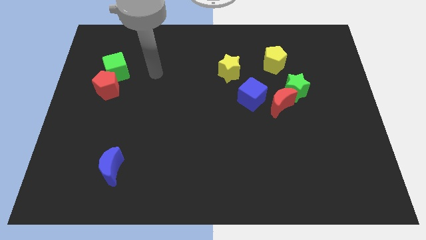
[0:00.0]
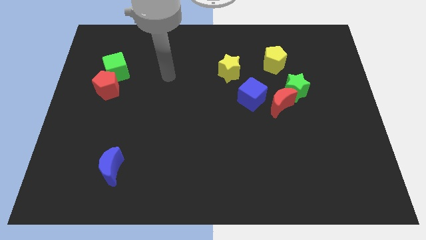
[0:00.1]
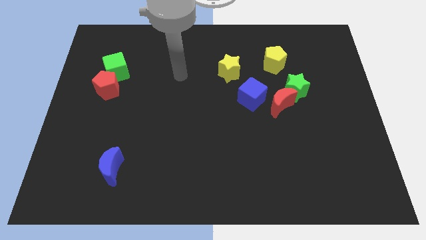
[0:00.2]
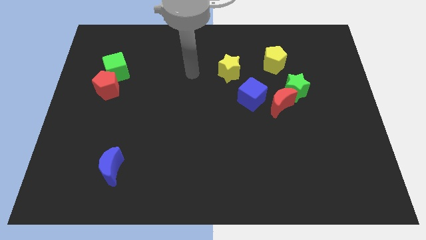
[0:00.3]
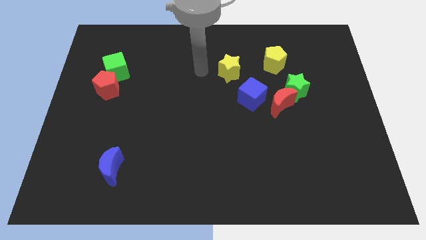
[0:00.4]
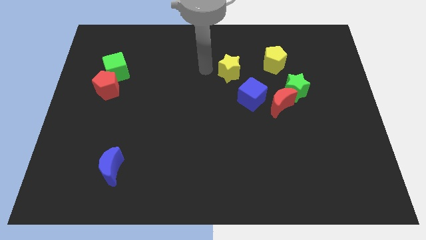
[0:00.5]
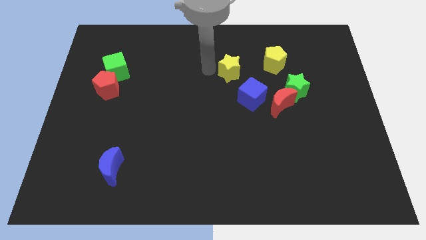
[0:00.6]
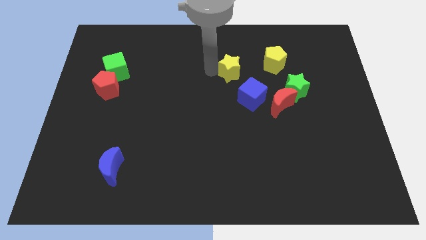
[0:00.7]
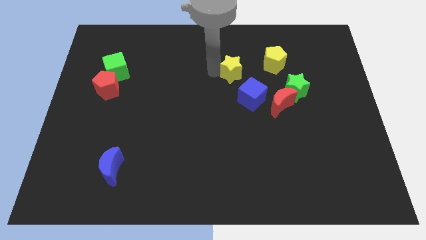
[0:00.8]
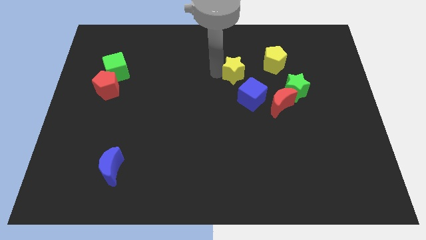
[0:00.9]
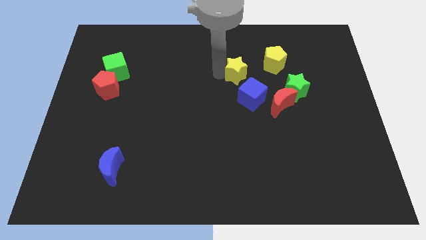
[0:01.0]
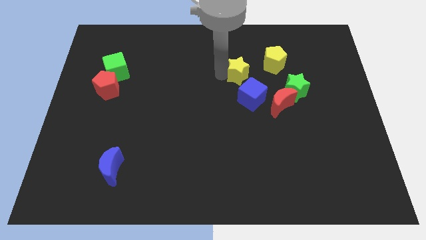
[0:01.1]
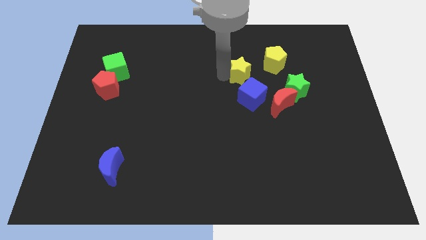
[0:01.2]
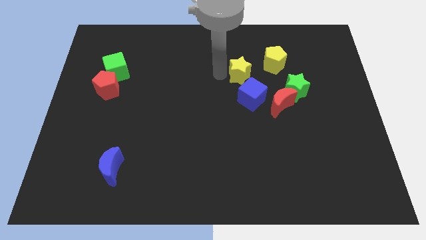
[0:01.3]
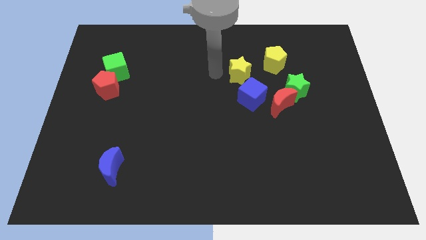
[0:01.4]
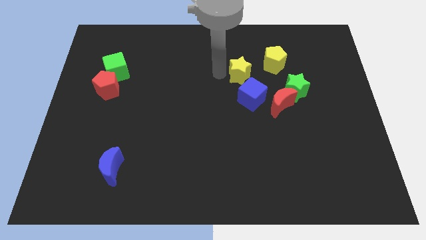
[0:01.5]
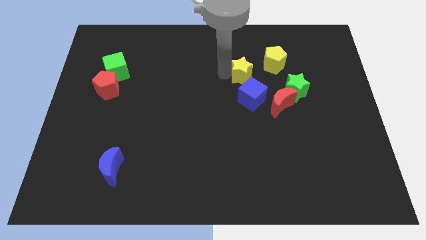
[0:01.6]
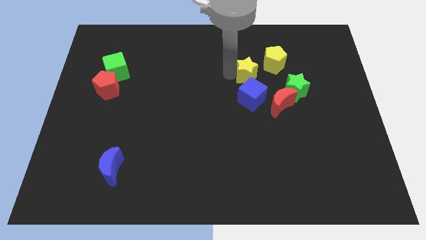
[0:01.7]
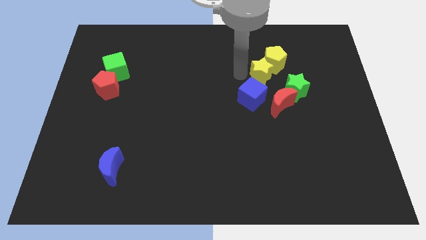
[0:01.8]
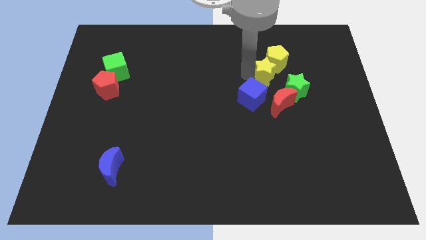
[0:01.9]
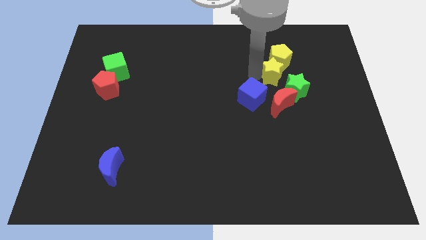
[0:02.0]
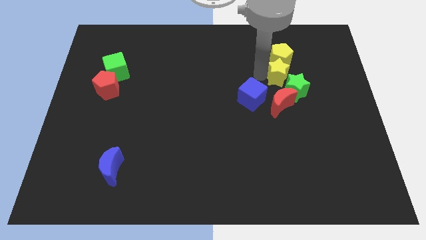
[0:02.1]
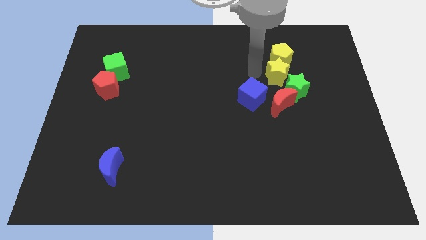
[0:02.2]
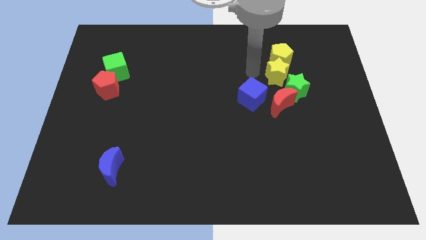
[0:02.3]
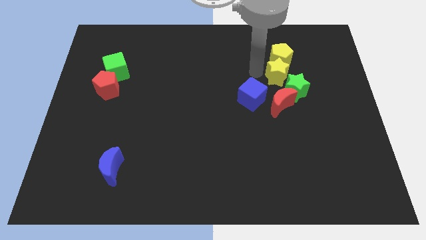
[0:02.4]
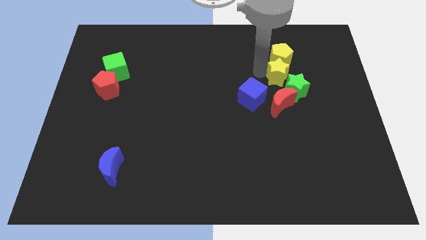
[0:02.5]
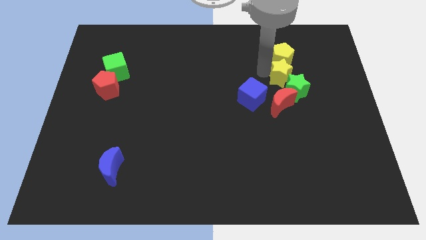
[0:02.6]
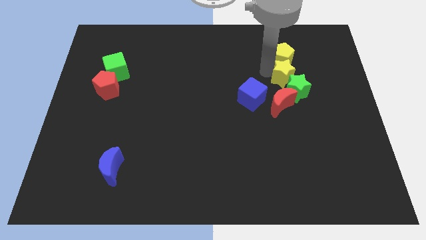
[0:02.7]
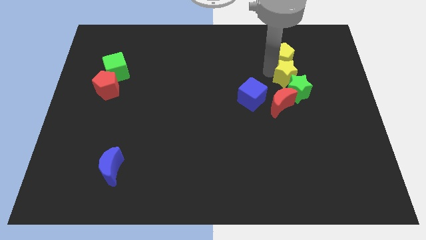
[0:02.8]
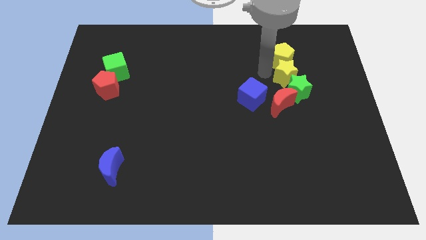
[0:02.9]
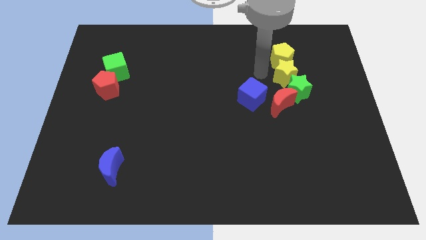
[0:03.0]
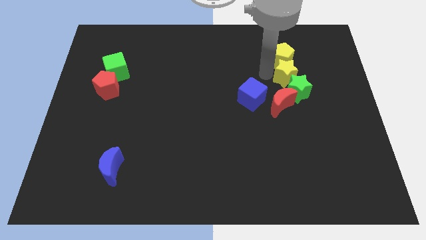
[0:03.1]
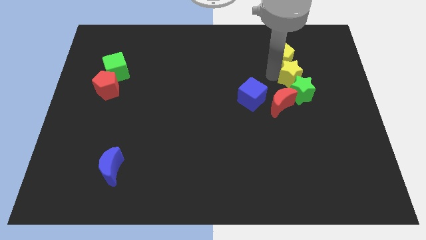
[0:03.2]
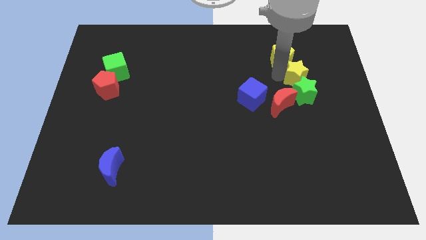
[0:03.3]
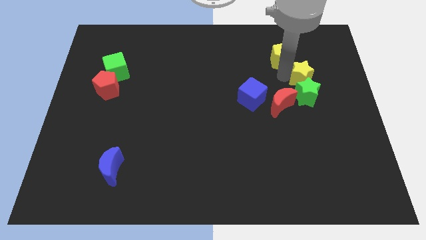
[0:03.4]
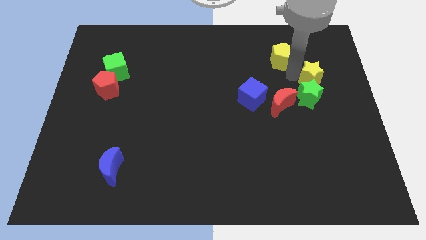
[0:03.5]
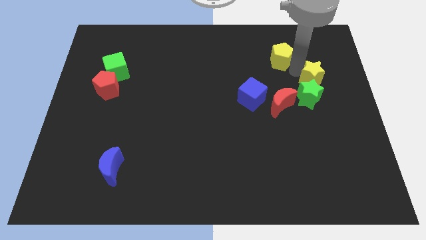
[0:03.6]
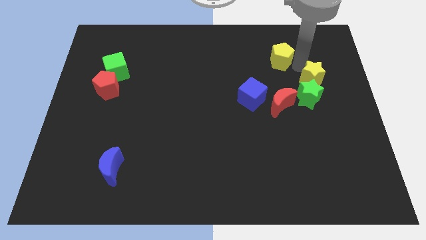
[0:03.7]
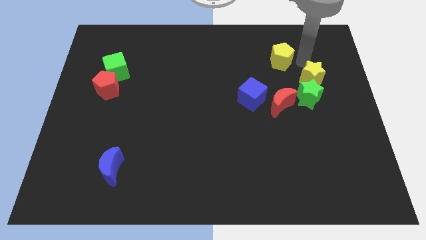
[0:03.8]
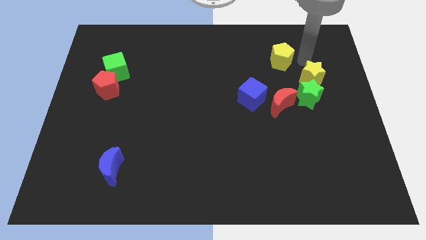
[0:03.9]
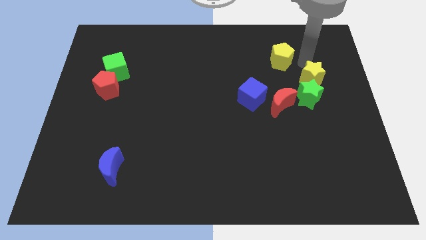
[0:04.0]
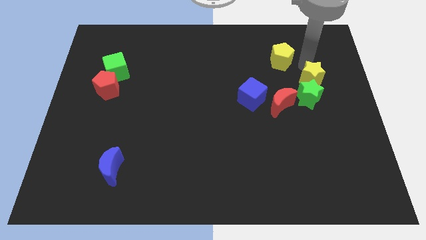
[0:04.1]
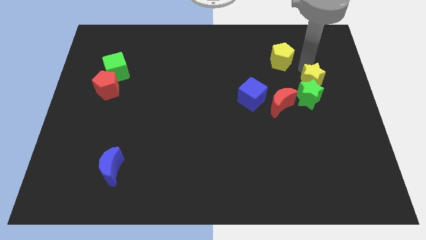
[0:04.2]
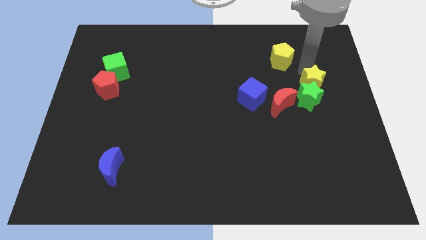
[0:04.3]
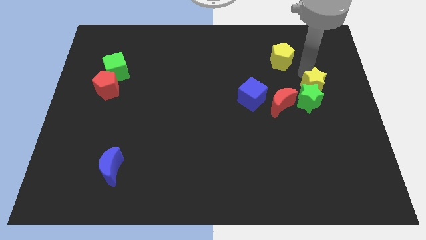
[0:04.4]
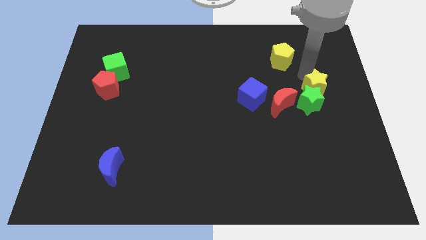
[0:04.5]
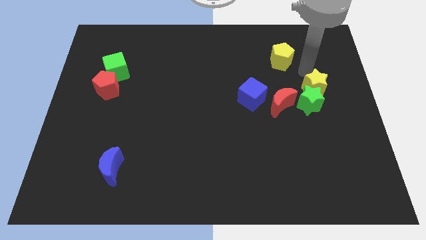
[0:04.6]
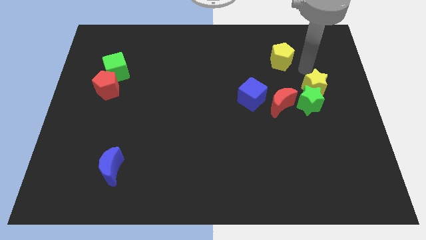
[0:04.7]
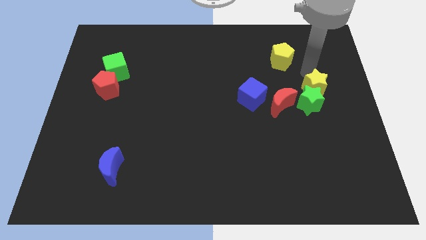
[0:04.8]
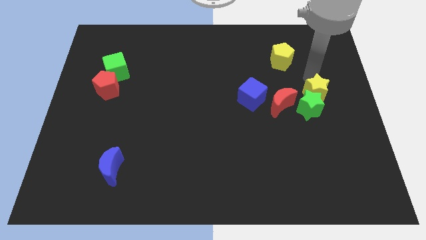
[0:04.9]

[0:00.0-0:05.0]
put the yellow star right of the red moon

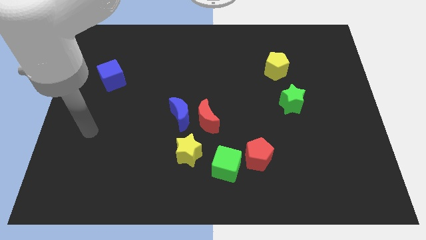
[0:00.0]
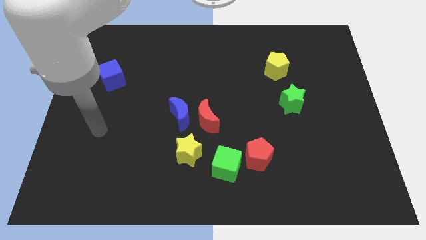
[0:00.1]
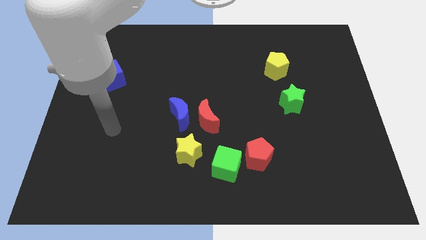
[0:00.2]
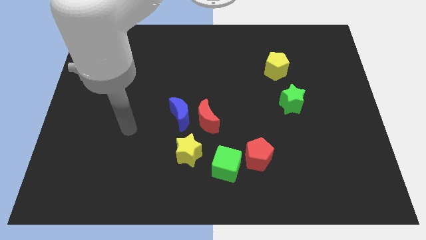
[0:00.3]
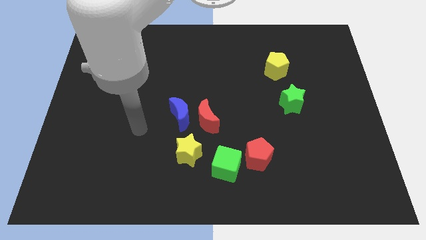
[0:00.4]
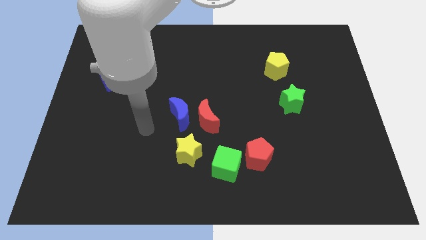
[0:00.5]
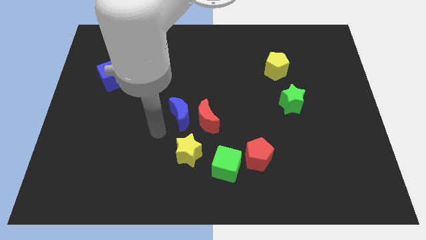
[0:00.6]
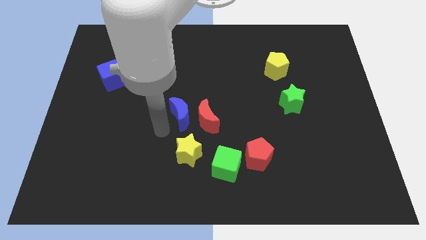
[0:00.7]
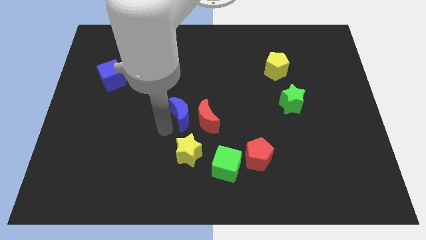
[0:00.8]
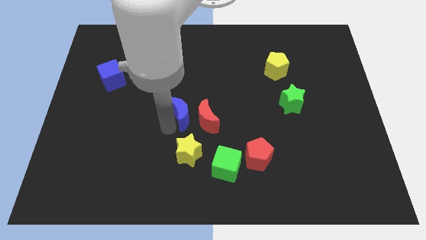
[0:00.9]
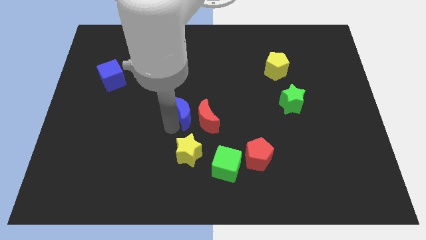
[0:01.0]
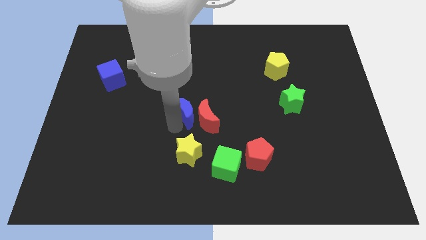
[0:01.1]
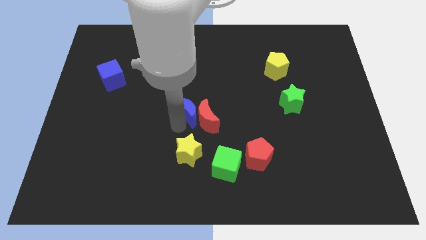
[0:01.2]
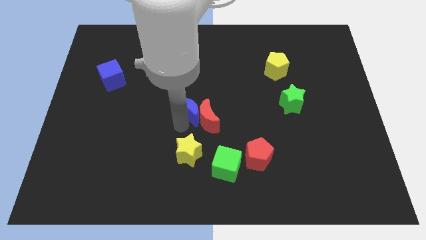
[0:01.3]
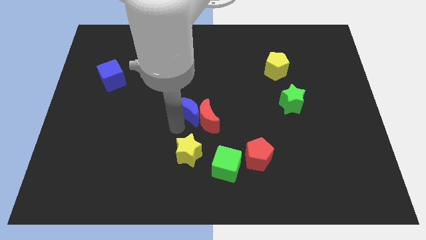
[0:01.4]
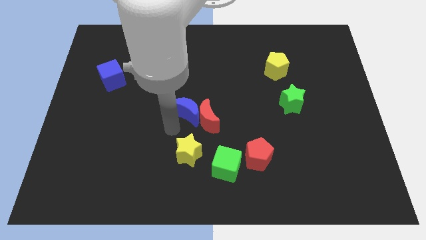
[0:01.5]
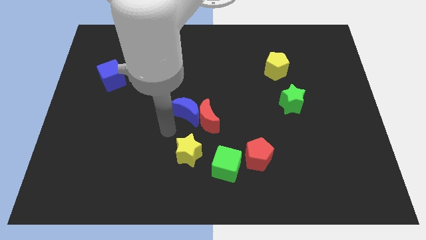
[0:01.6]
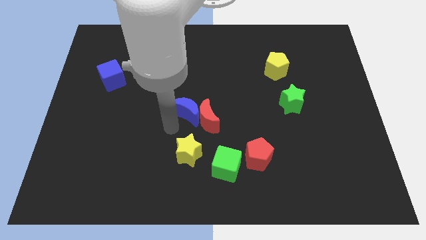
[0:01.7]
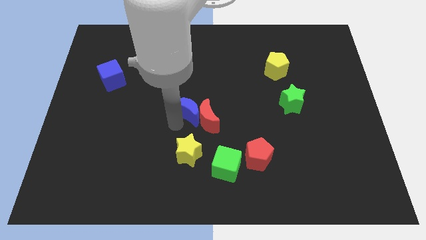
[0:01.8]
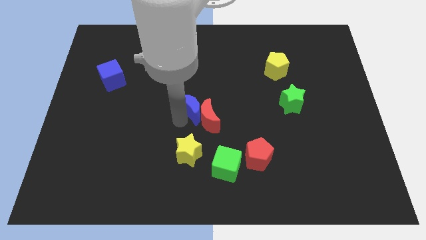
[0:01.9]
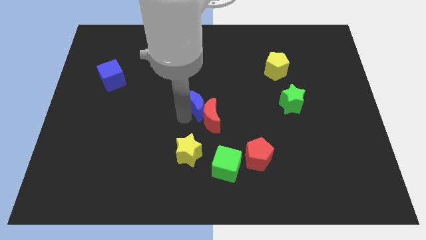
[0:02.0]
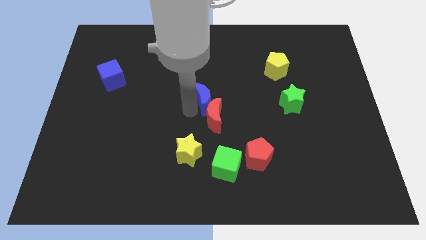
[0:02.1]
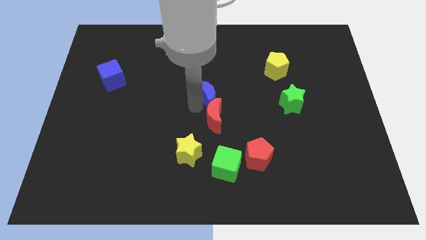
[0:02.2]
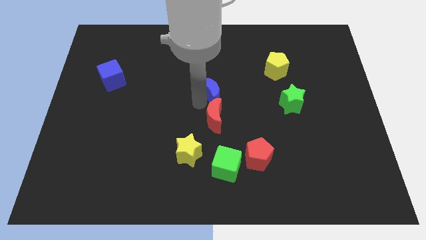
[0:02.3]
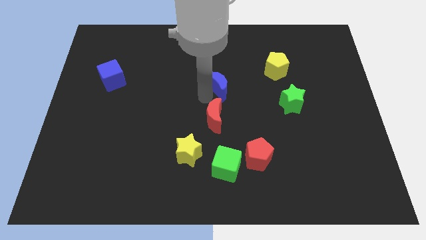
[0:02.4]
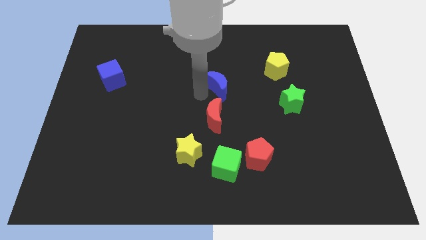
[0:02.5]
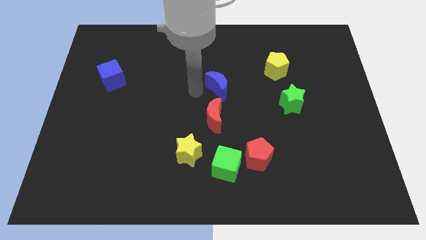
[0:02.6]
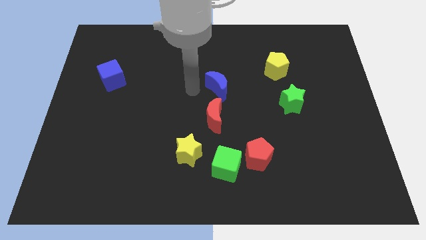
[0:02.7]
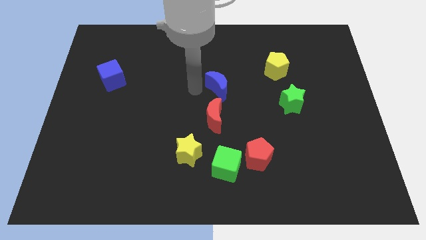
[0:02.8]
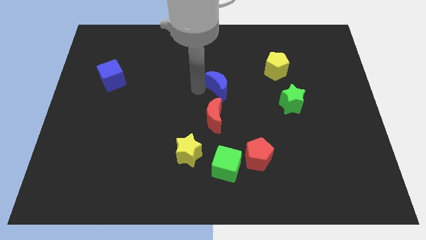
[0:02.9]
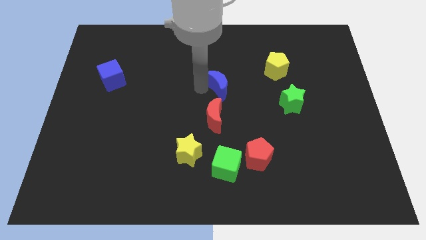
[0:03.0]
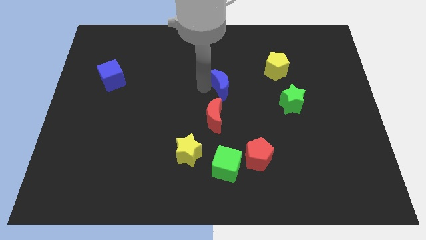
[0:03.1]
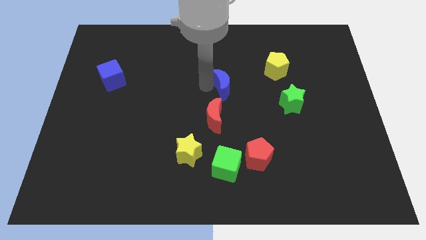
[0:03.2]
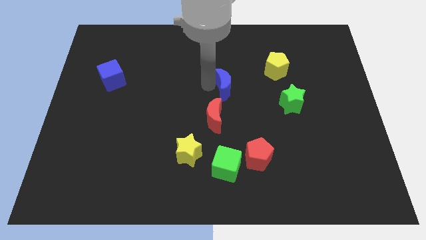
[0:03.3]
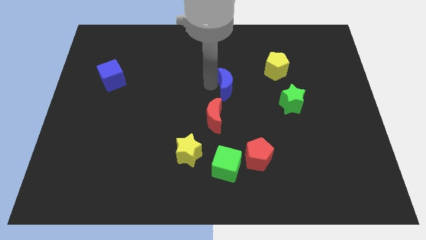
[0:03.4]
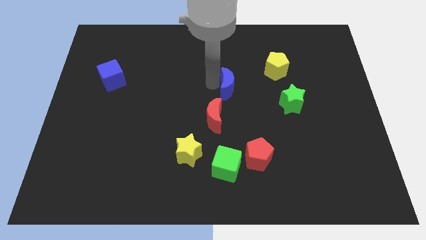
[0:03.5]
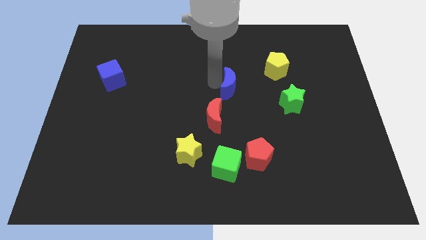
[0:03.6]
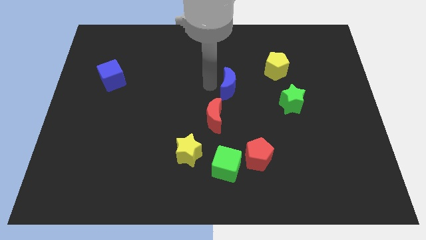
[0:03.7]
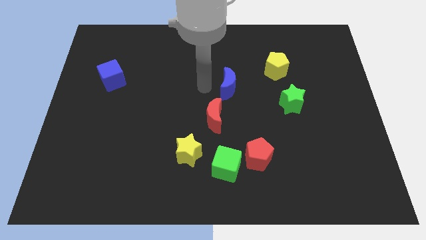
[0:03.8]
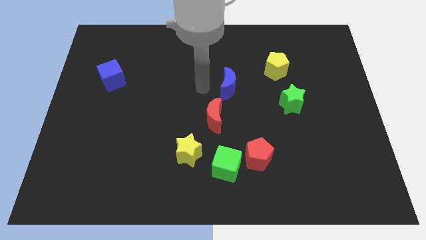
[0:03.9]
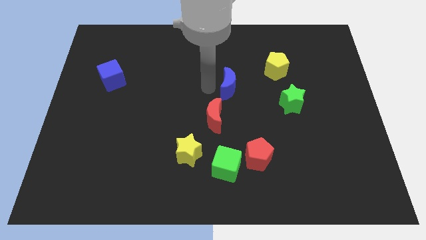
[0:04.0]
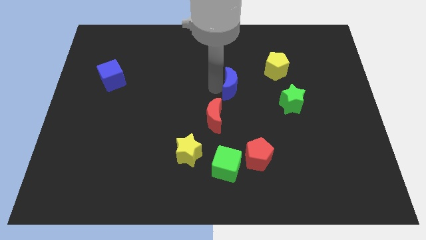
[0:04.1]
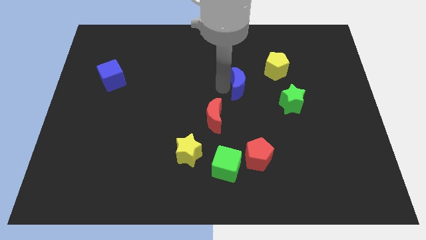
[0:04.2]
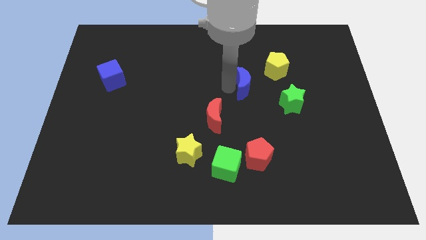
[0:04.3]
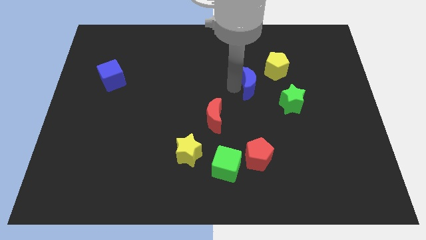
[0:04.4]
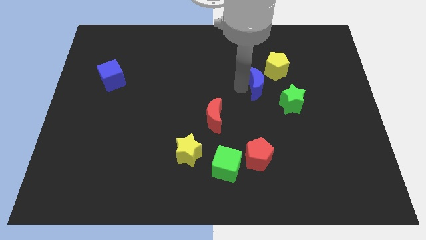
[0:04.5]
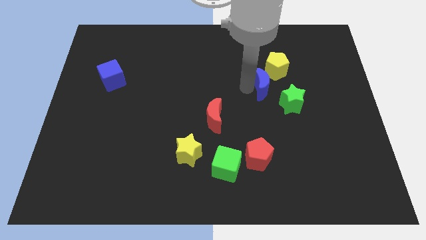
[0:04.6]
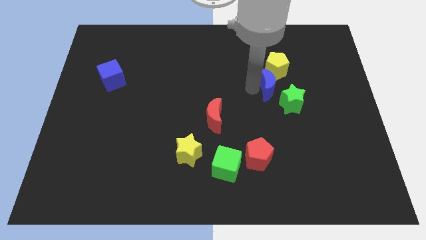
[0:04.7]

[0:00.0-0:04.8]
put the blue moon to the top of the green star
